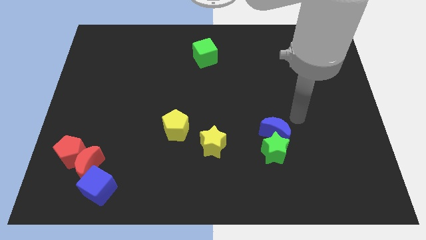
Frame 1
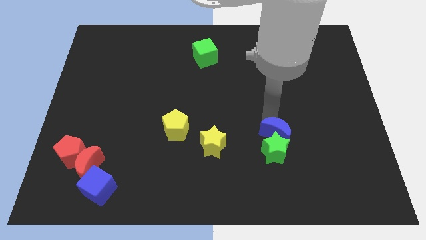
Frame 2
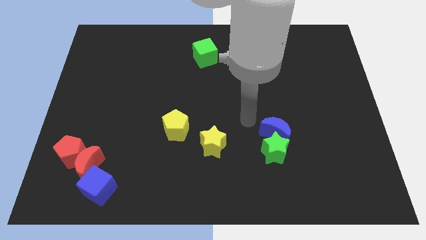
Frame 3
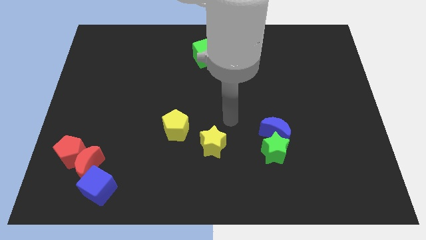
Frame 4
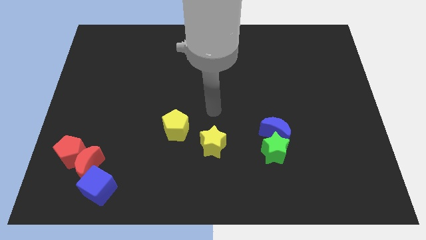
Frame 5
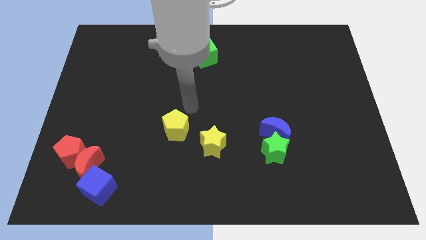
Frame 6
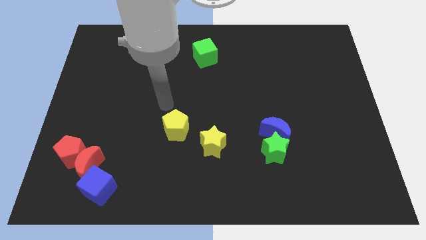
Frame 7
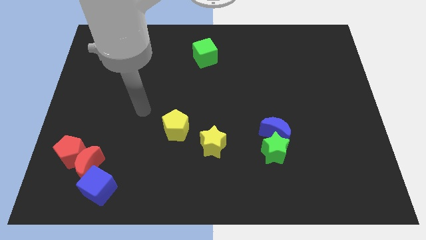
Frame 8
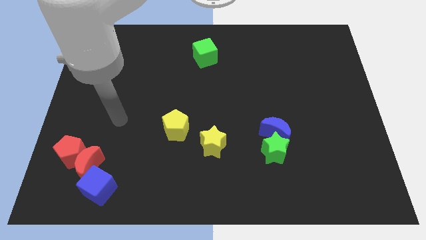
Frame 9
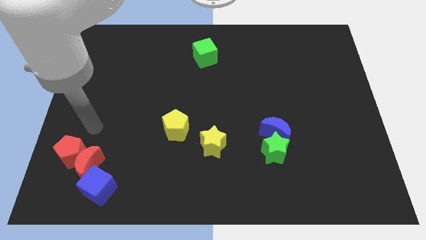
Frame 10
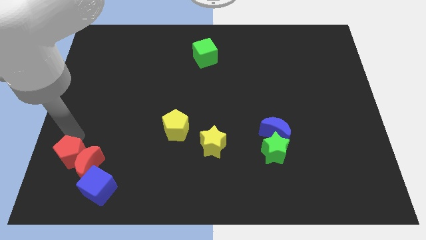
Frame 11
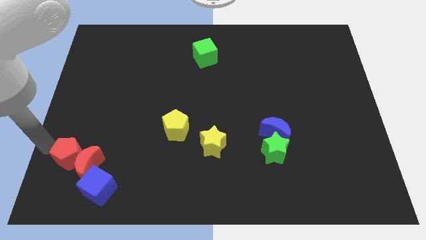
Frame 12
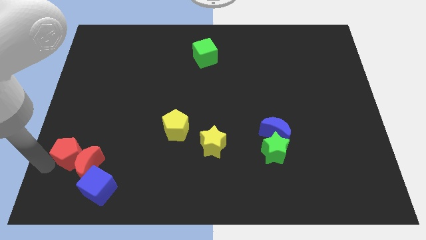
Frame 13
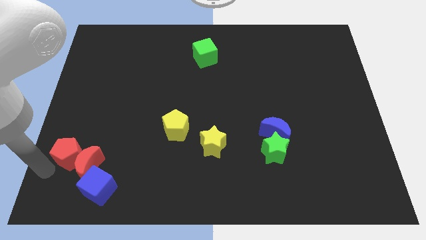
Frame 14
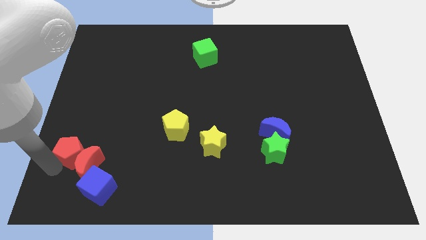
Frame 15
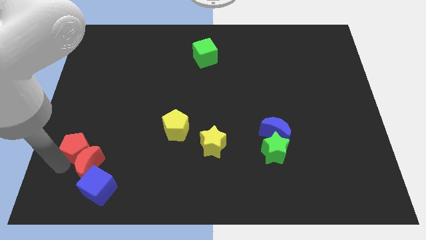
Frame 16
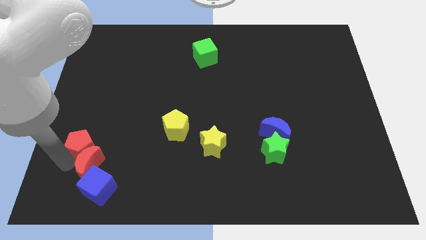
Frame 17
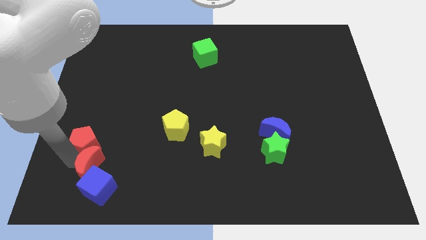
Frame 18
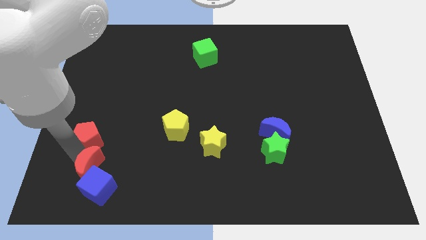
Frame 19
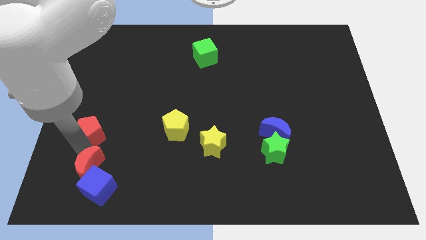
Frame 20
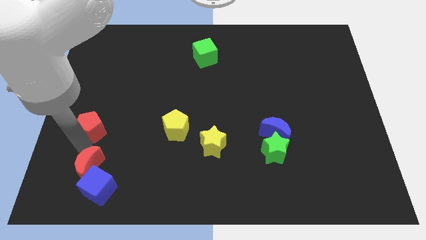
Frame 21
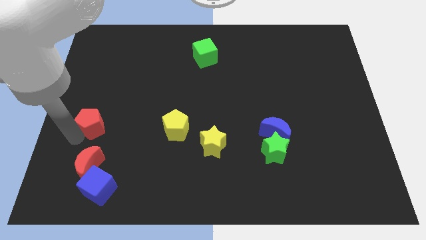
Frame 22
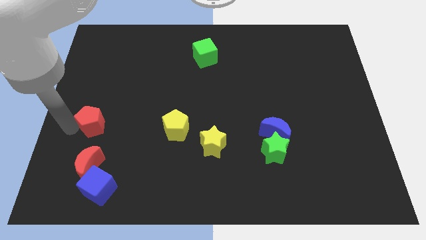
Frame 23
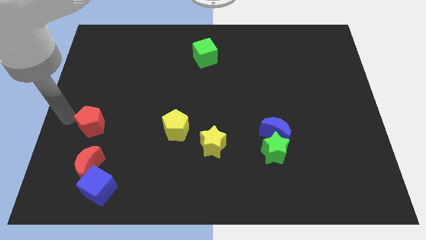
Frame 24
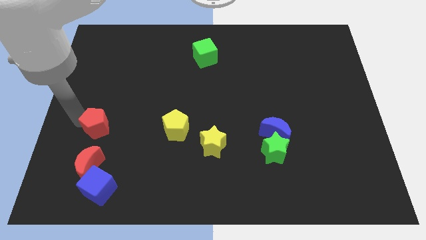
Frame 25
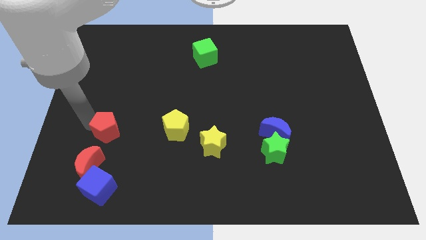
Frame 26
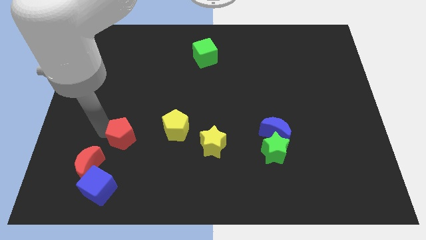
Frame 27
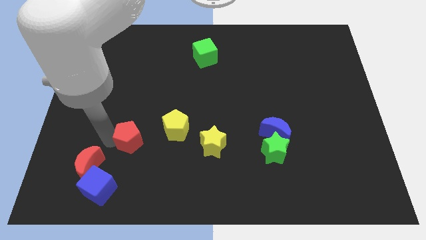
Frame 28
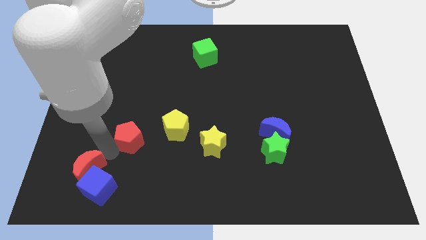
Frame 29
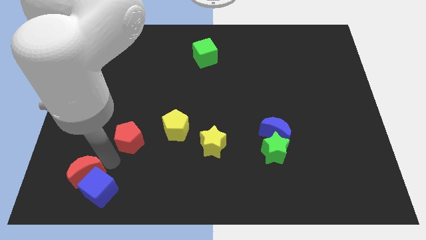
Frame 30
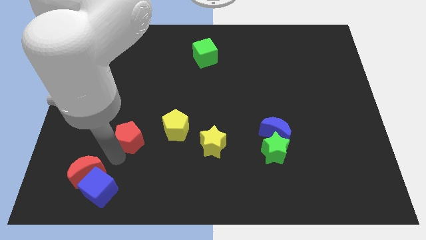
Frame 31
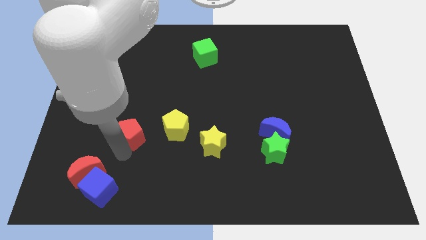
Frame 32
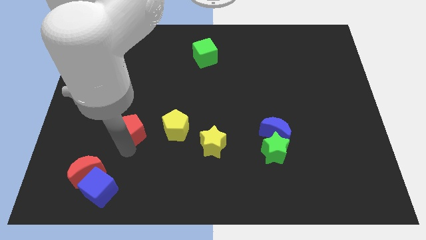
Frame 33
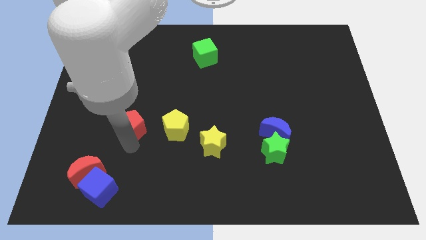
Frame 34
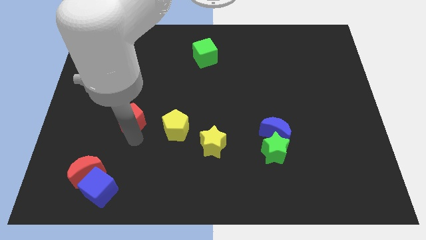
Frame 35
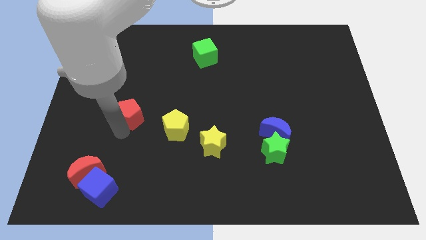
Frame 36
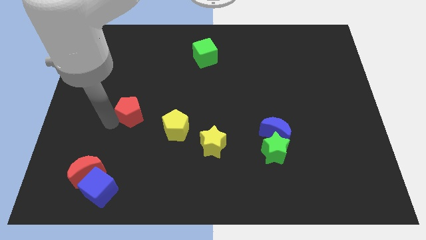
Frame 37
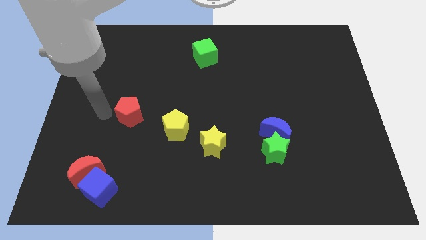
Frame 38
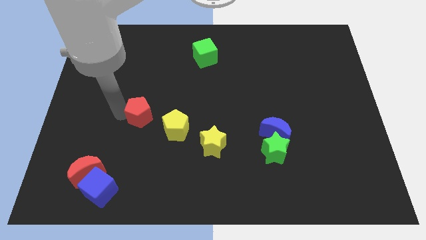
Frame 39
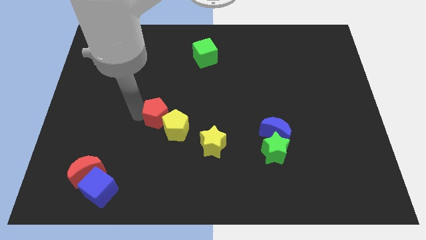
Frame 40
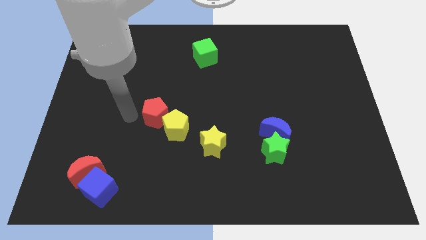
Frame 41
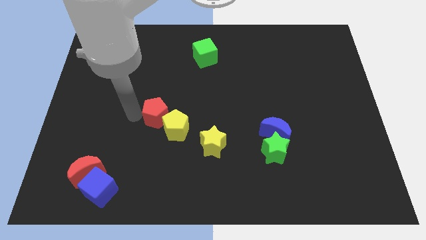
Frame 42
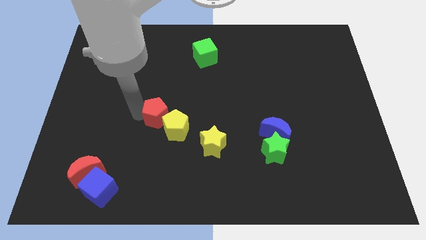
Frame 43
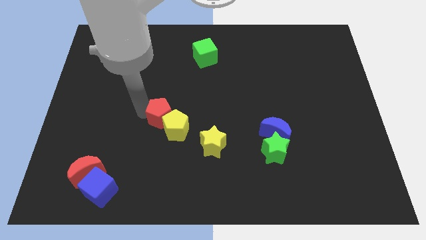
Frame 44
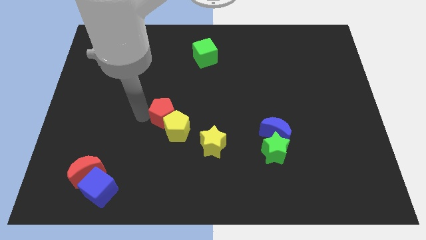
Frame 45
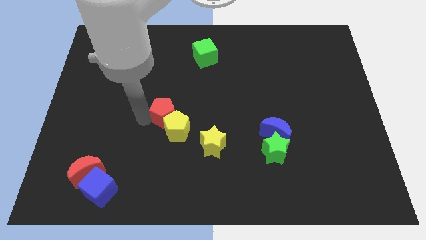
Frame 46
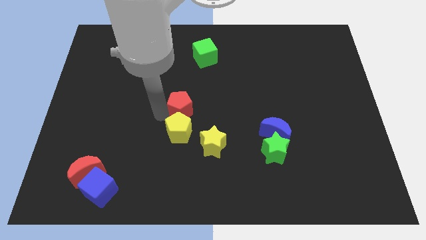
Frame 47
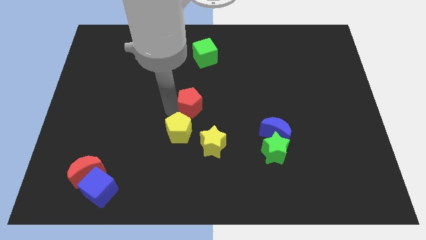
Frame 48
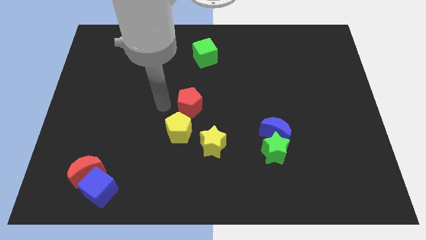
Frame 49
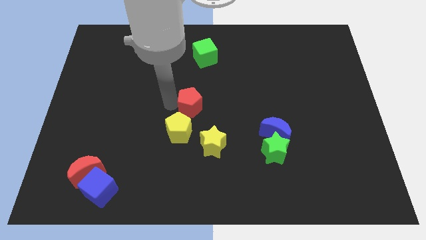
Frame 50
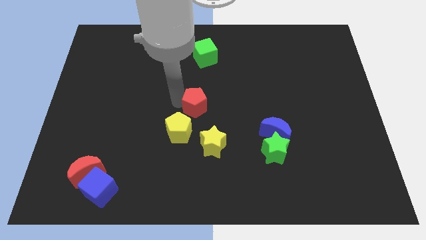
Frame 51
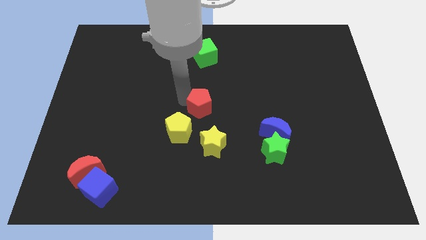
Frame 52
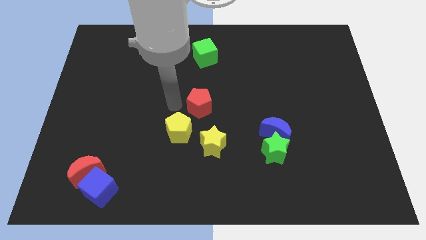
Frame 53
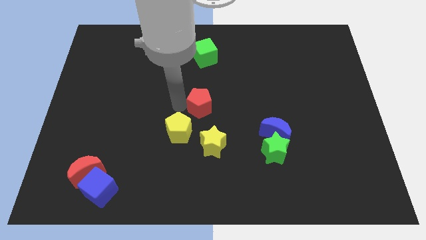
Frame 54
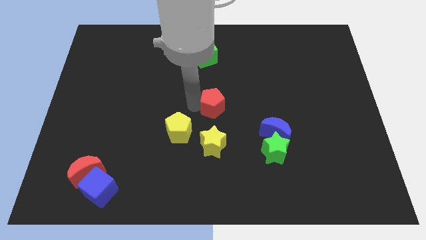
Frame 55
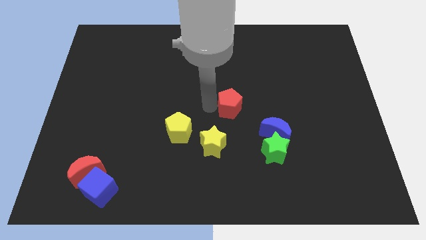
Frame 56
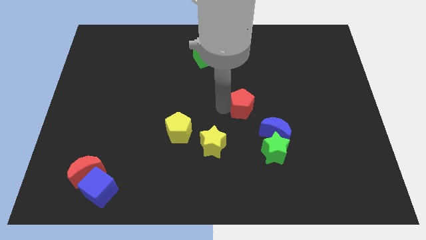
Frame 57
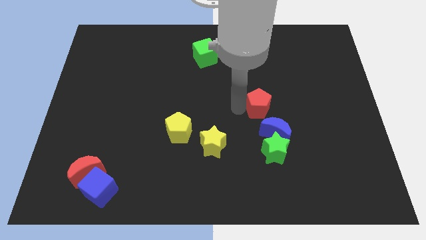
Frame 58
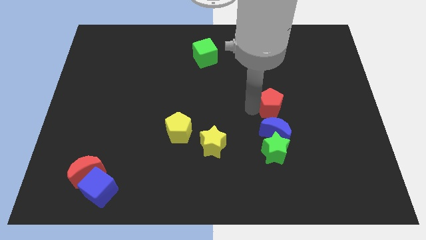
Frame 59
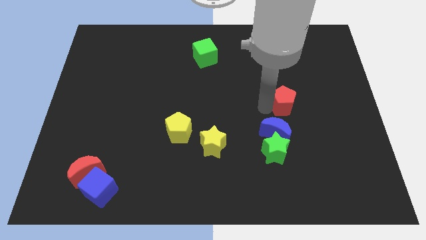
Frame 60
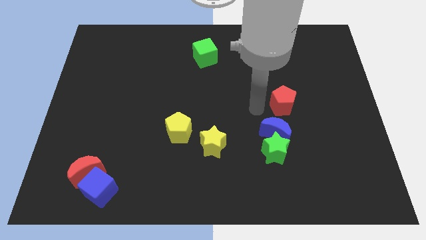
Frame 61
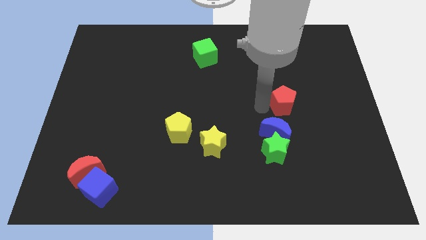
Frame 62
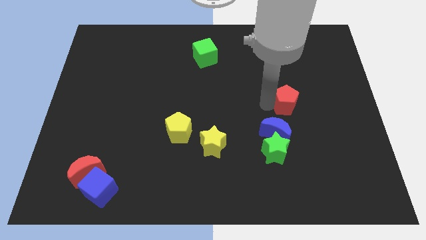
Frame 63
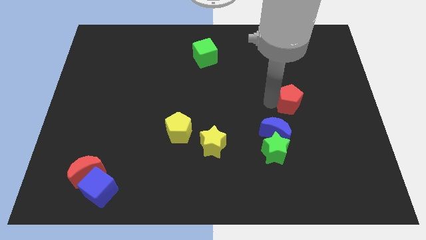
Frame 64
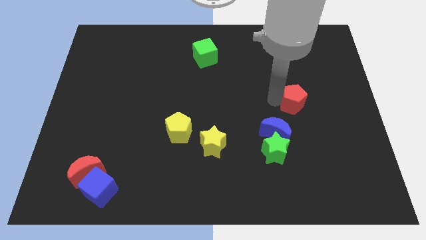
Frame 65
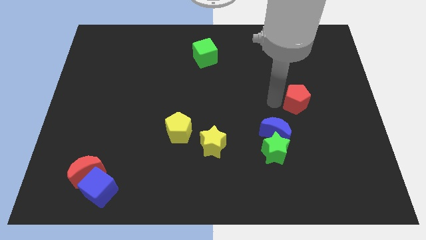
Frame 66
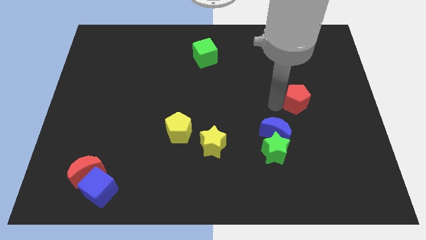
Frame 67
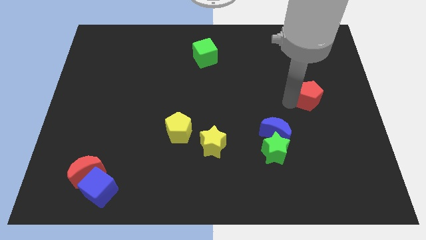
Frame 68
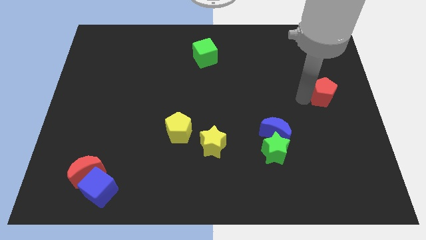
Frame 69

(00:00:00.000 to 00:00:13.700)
move the red pentagon to the center right
